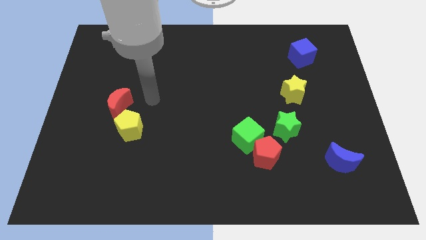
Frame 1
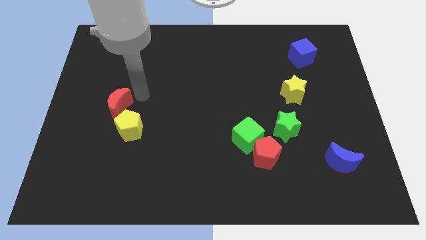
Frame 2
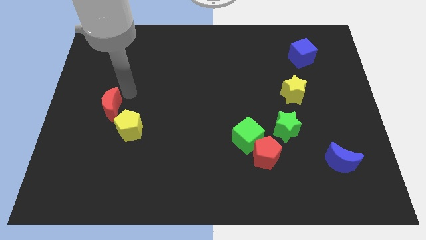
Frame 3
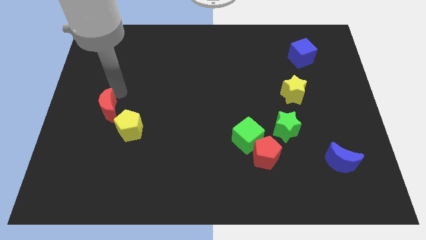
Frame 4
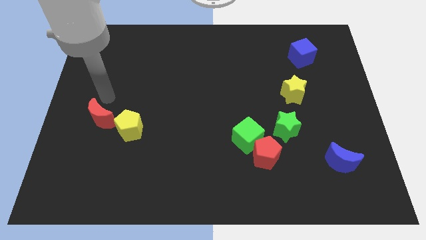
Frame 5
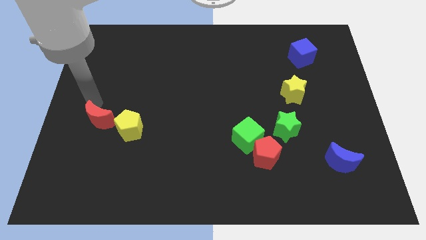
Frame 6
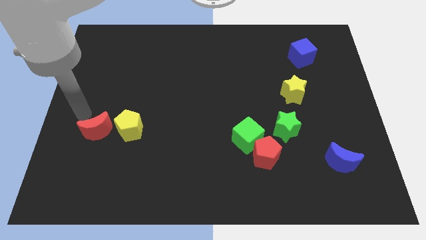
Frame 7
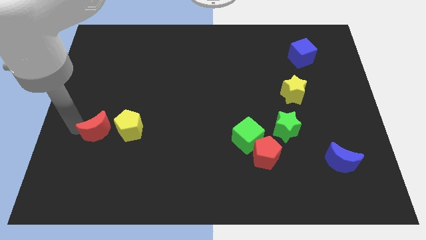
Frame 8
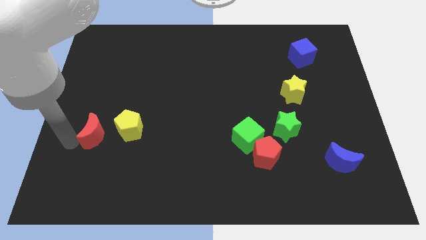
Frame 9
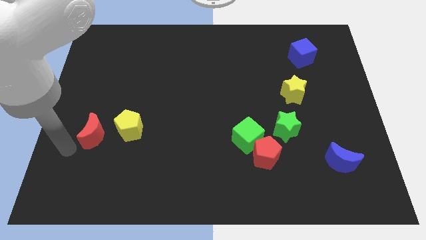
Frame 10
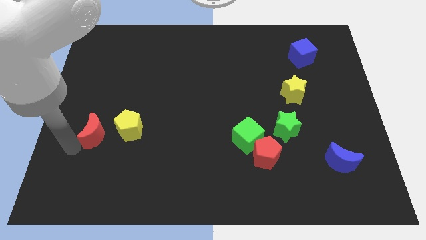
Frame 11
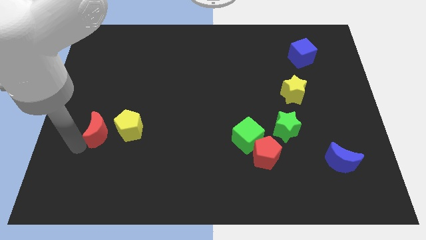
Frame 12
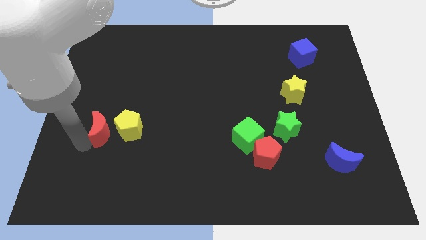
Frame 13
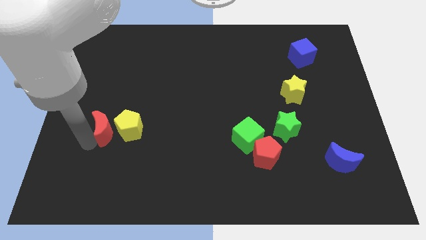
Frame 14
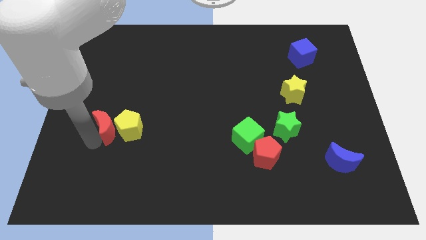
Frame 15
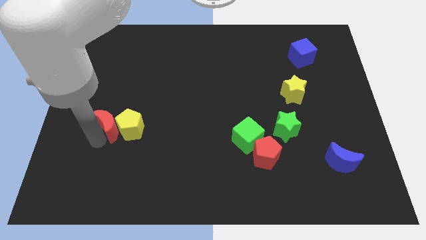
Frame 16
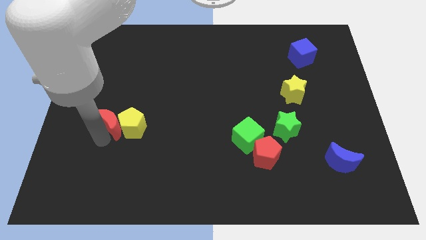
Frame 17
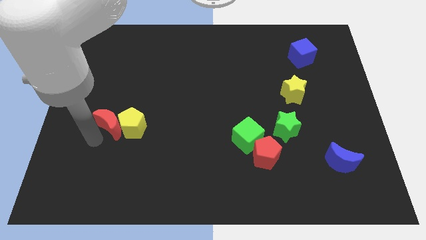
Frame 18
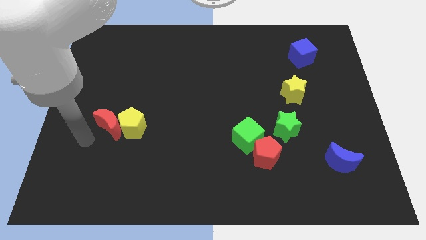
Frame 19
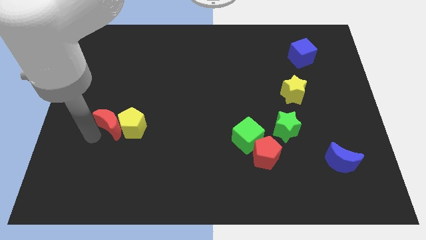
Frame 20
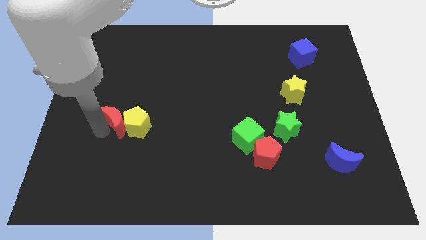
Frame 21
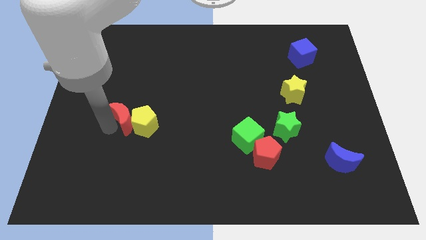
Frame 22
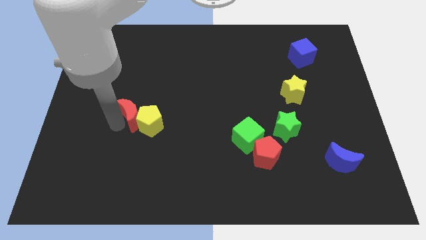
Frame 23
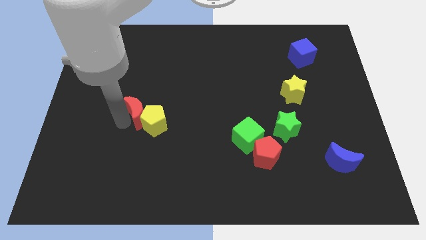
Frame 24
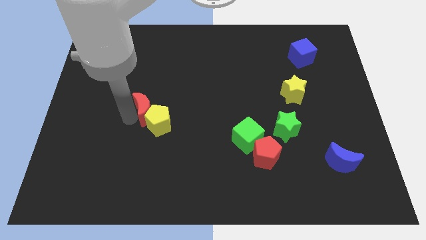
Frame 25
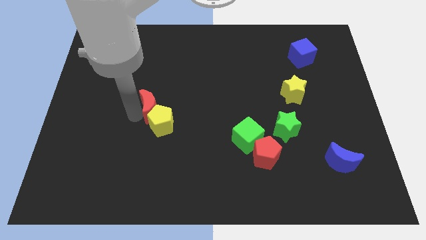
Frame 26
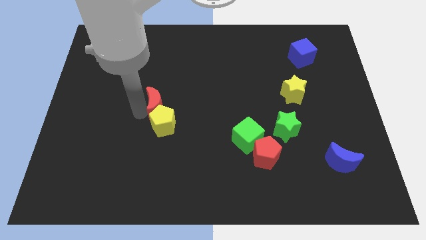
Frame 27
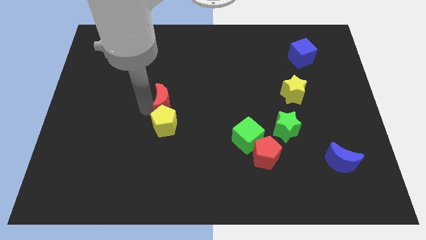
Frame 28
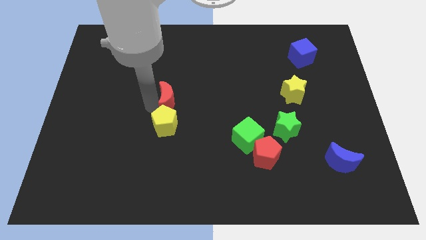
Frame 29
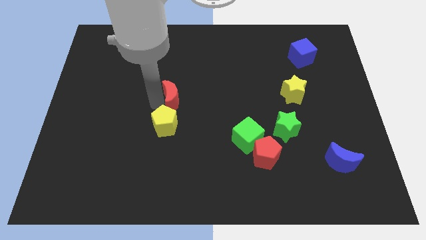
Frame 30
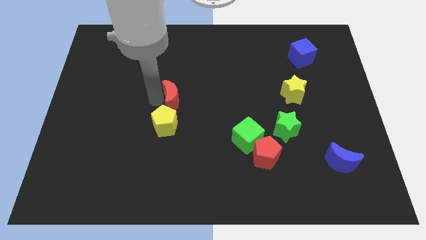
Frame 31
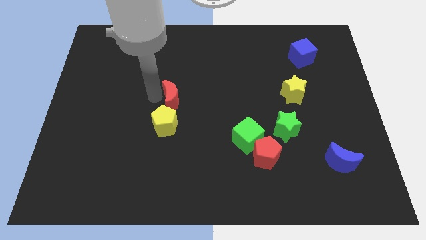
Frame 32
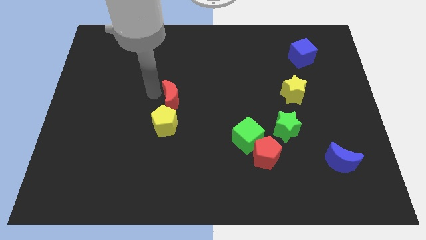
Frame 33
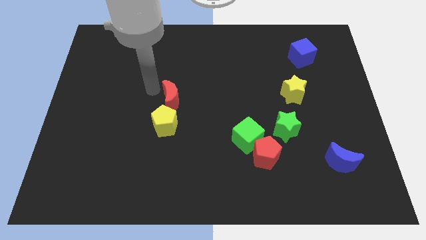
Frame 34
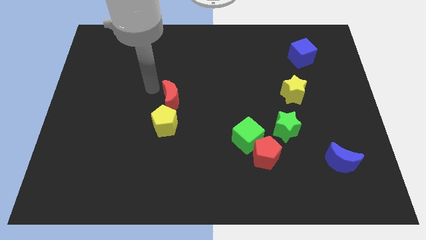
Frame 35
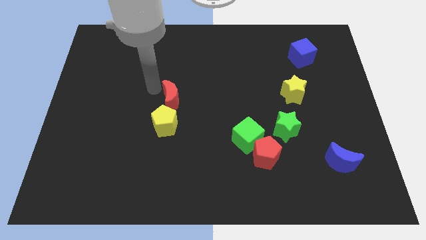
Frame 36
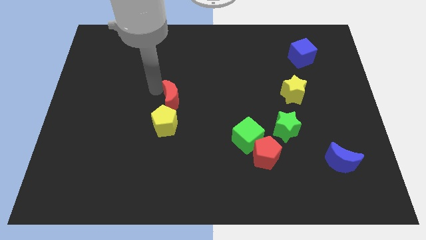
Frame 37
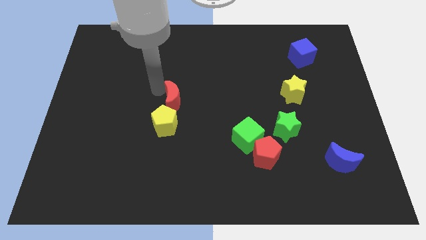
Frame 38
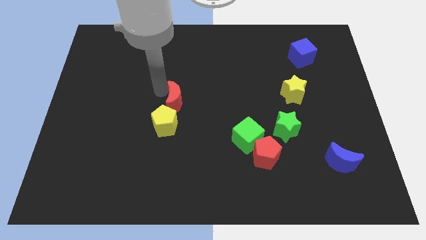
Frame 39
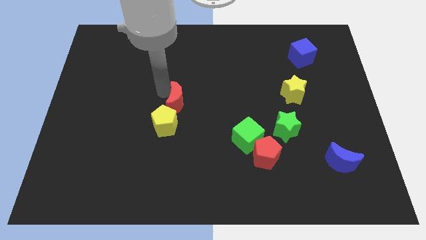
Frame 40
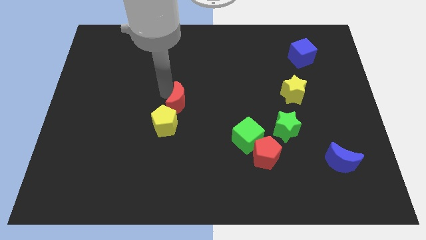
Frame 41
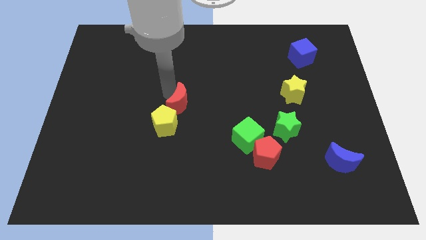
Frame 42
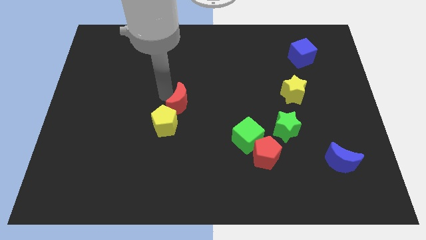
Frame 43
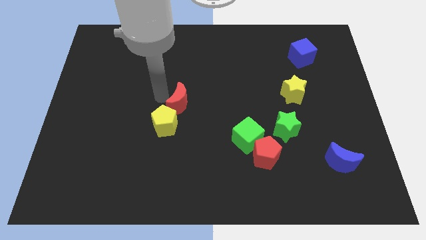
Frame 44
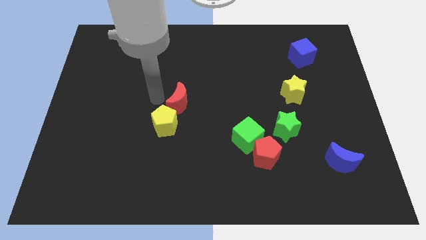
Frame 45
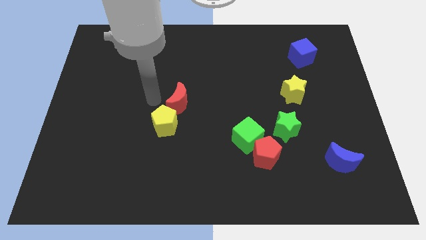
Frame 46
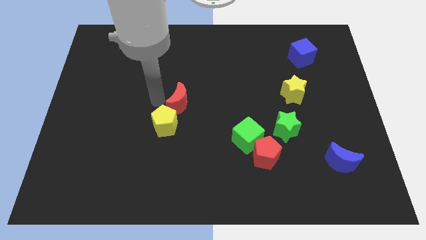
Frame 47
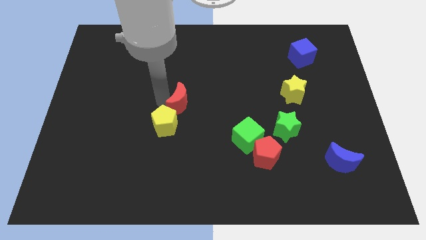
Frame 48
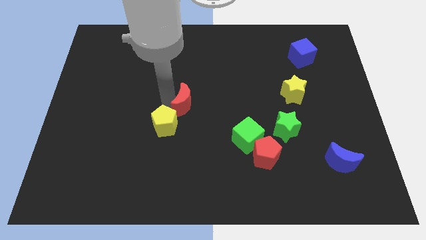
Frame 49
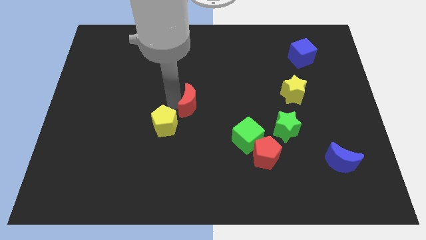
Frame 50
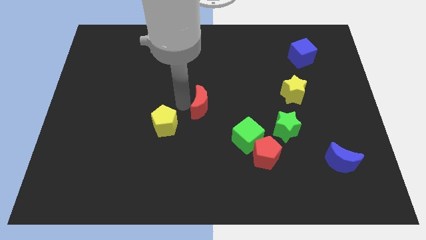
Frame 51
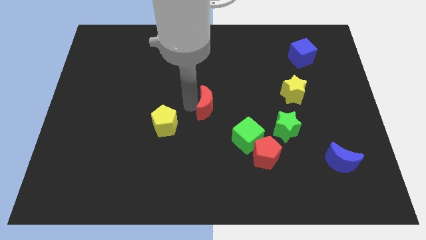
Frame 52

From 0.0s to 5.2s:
move the red moon to the right

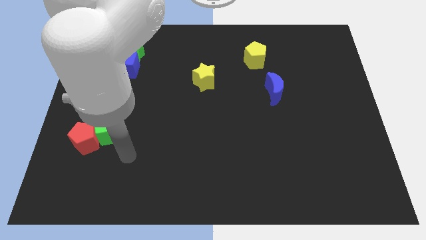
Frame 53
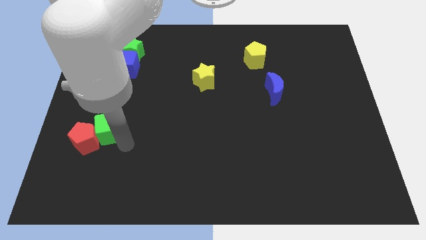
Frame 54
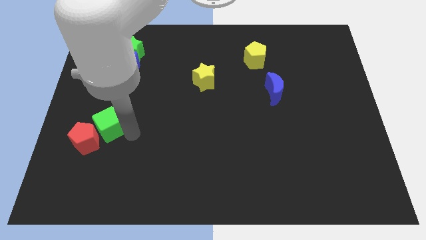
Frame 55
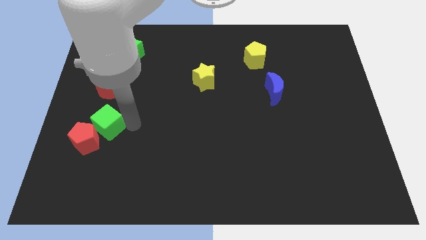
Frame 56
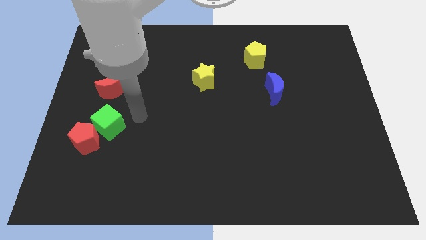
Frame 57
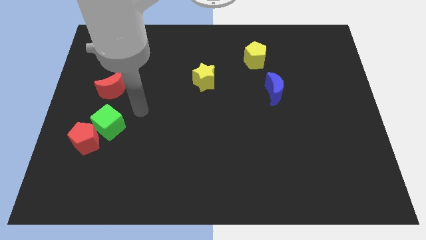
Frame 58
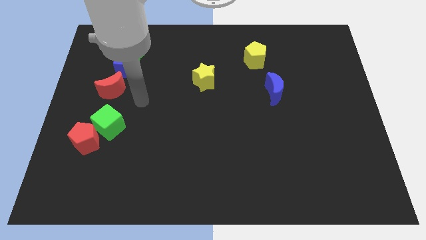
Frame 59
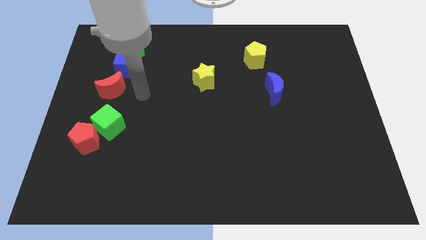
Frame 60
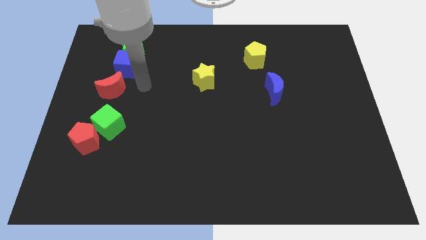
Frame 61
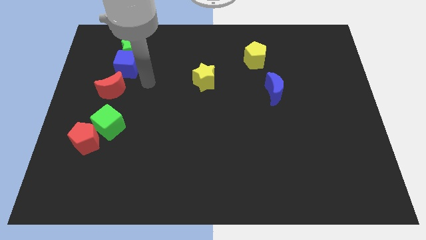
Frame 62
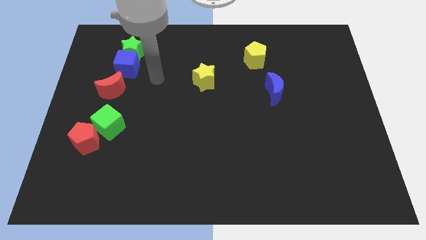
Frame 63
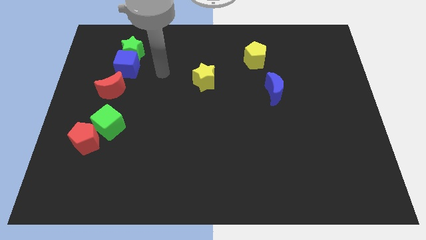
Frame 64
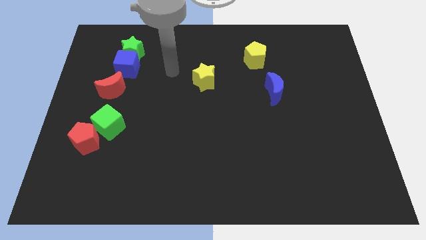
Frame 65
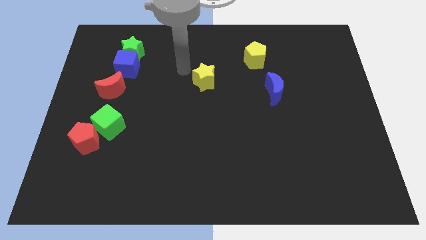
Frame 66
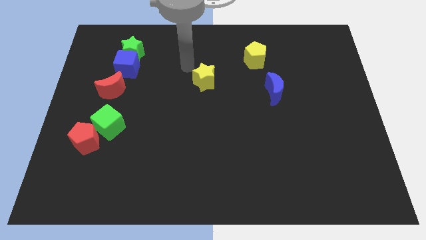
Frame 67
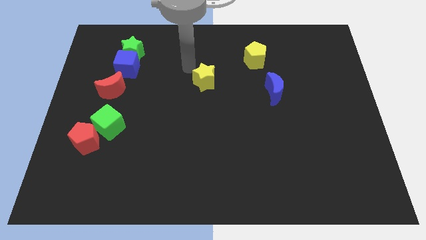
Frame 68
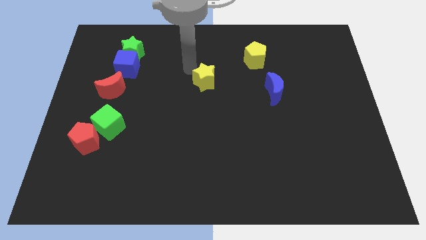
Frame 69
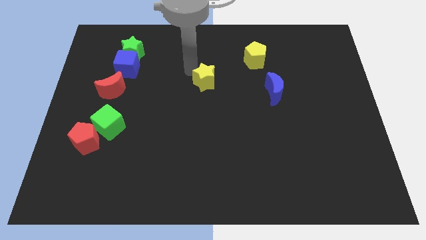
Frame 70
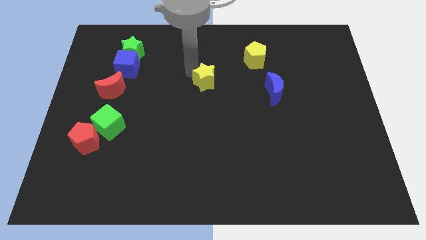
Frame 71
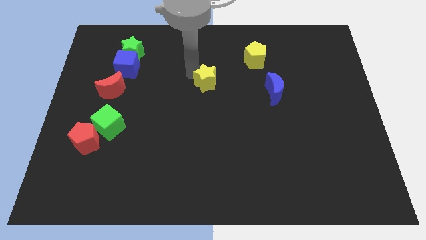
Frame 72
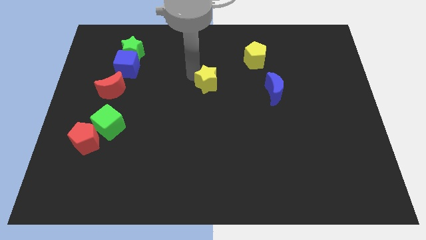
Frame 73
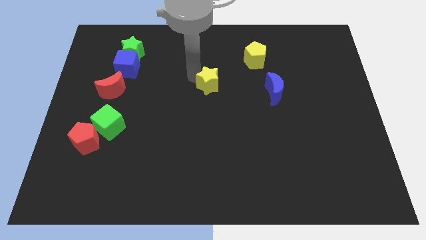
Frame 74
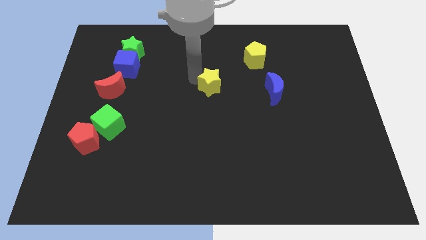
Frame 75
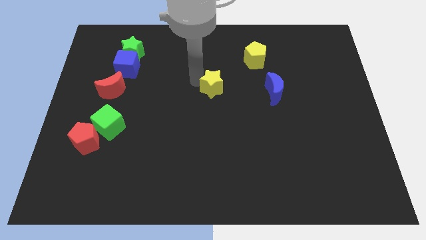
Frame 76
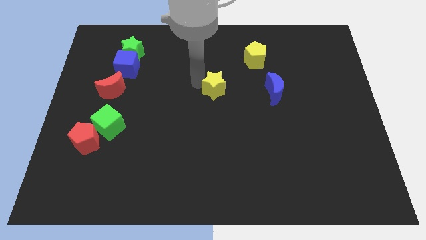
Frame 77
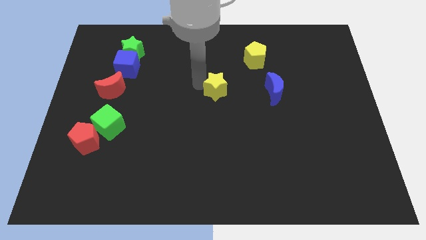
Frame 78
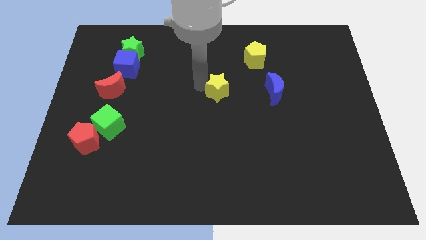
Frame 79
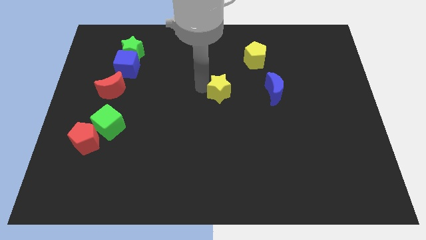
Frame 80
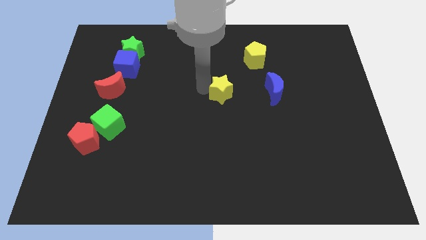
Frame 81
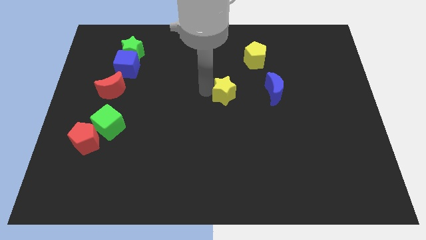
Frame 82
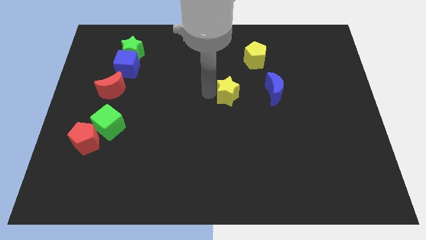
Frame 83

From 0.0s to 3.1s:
push the yellow star a little downwards and right diagonally
